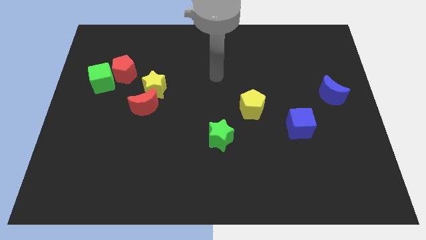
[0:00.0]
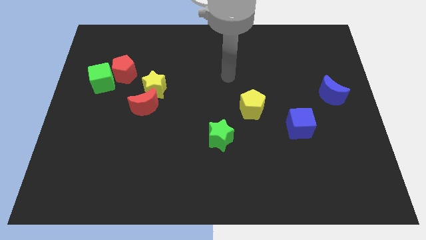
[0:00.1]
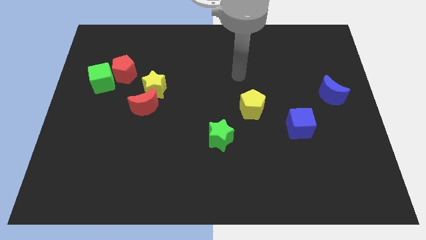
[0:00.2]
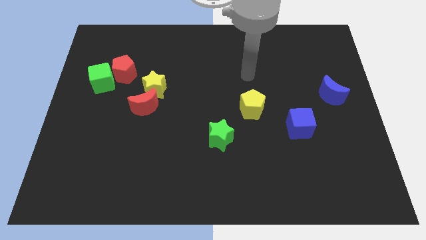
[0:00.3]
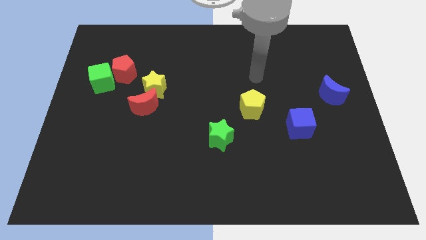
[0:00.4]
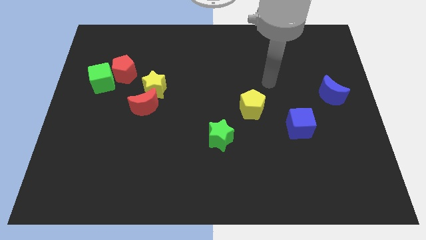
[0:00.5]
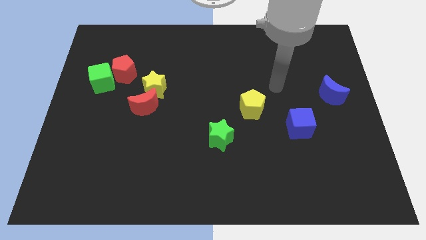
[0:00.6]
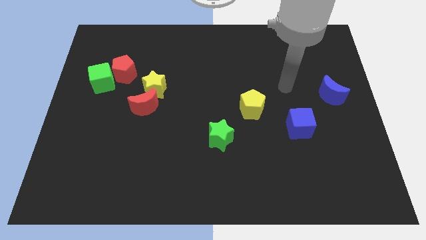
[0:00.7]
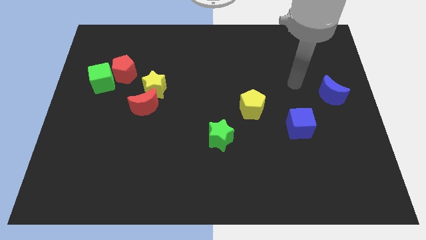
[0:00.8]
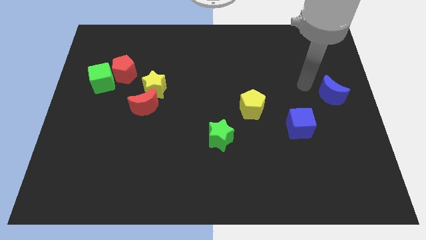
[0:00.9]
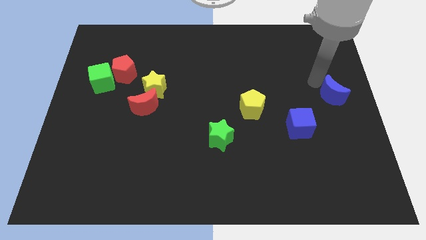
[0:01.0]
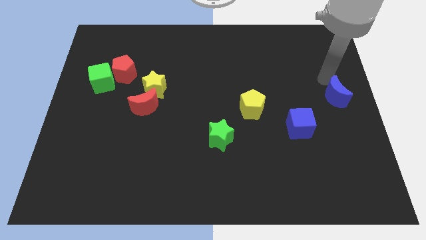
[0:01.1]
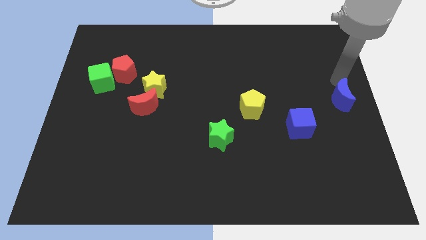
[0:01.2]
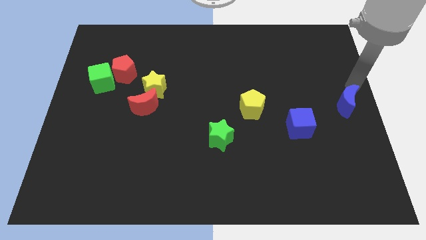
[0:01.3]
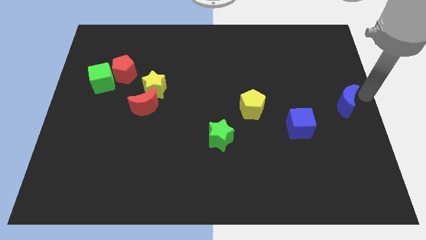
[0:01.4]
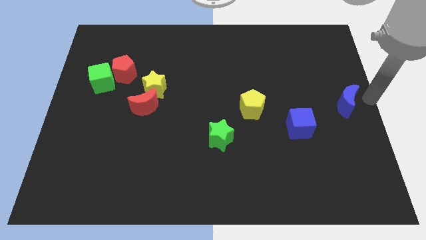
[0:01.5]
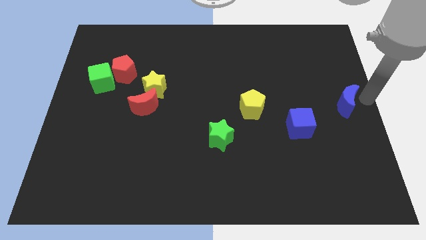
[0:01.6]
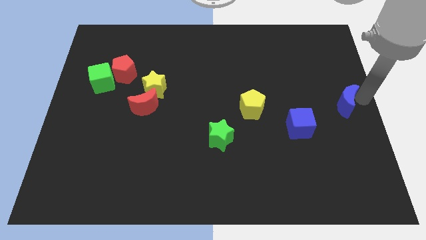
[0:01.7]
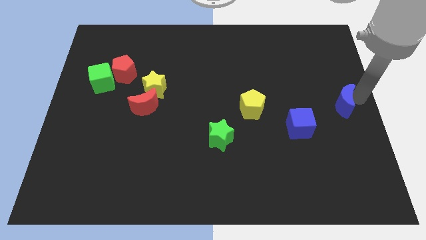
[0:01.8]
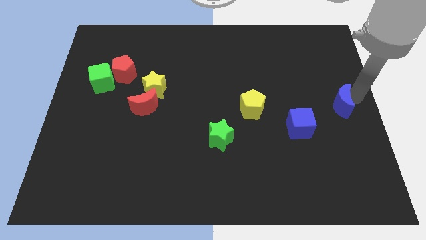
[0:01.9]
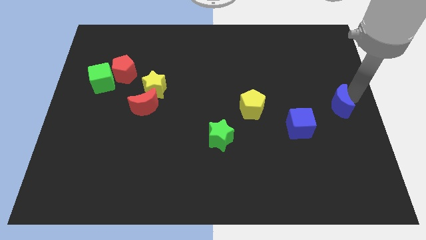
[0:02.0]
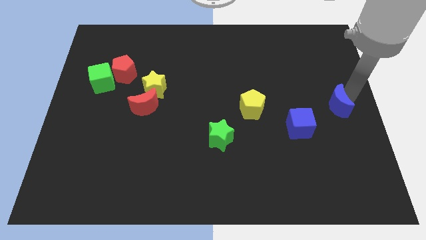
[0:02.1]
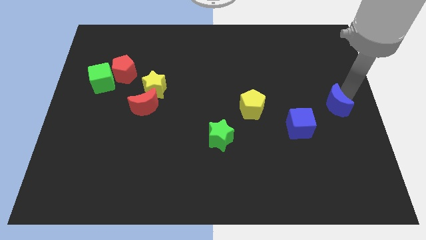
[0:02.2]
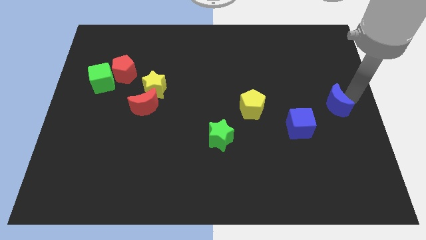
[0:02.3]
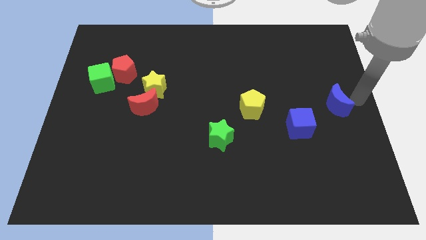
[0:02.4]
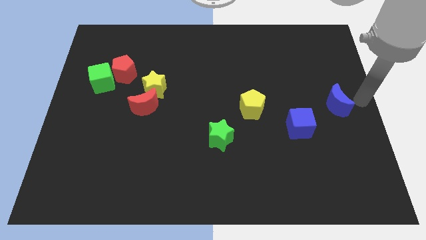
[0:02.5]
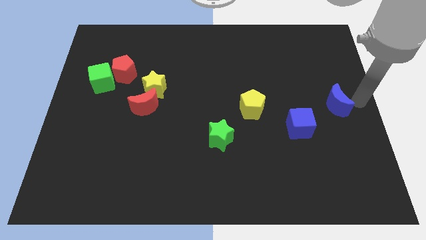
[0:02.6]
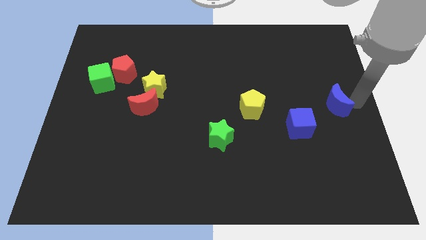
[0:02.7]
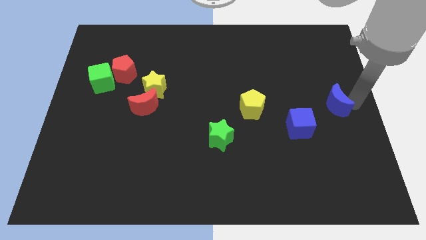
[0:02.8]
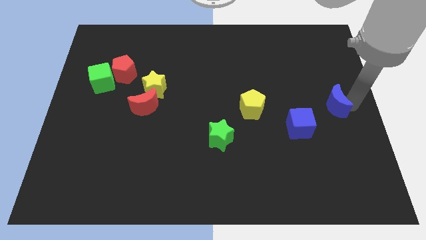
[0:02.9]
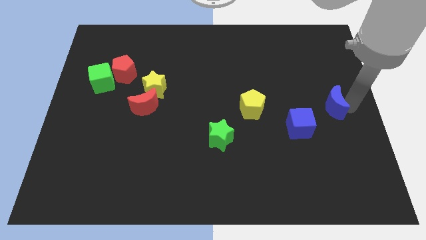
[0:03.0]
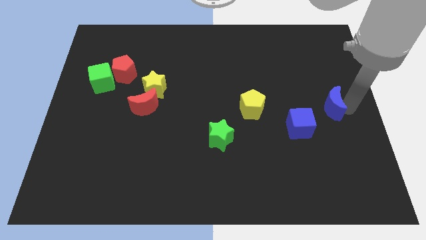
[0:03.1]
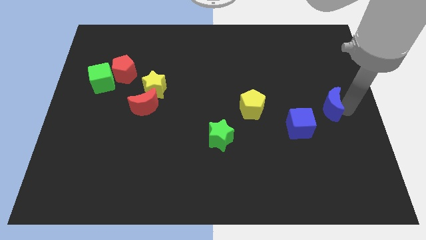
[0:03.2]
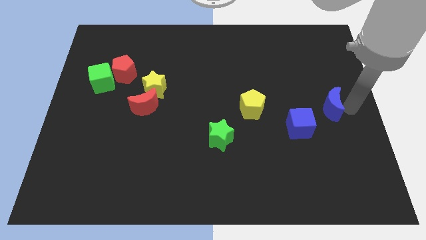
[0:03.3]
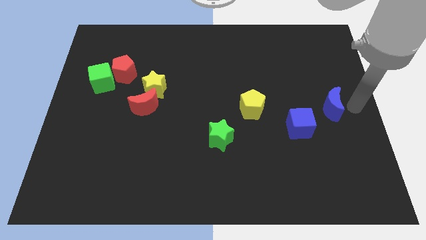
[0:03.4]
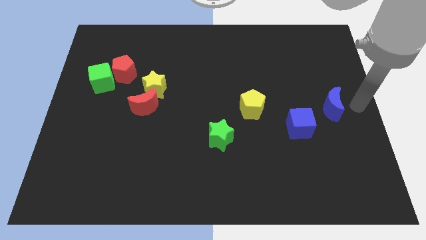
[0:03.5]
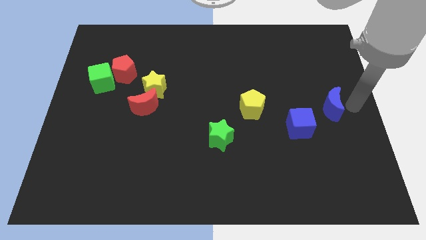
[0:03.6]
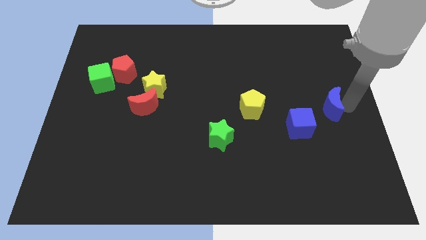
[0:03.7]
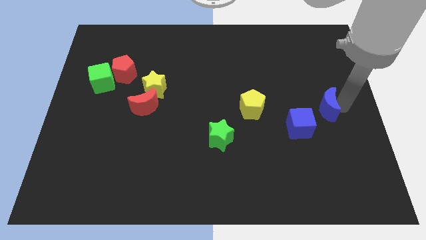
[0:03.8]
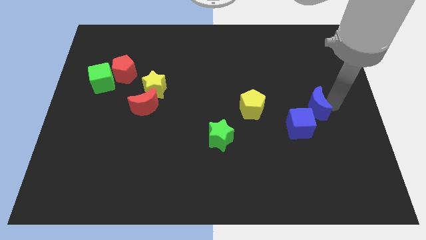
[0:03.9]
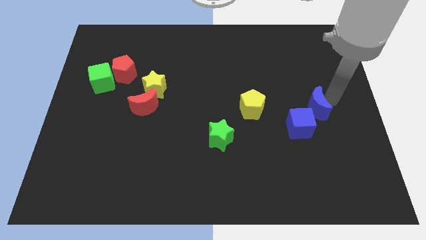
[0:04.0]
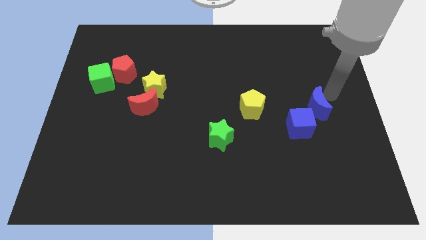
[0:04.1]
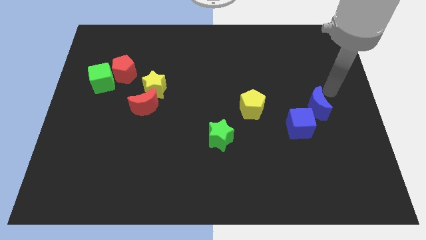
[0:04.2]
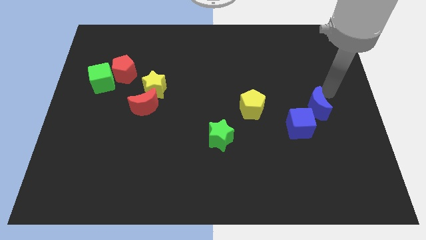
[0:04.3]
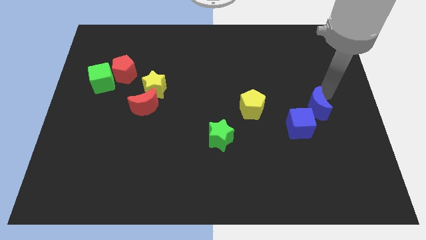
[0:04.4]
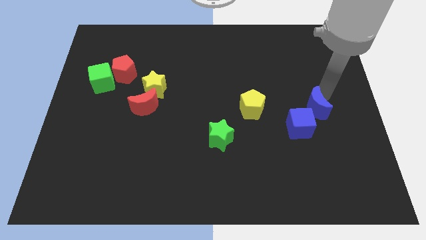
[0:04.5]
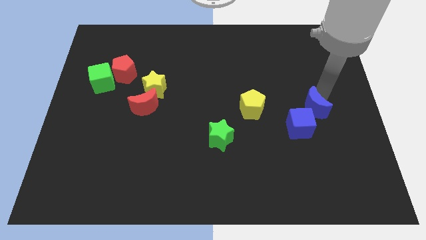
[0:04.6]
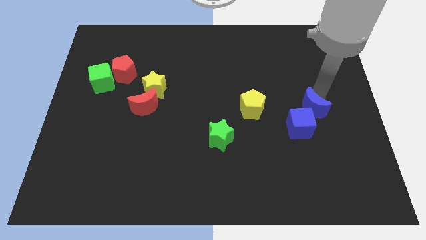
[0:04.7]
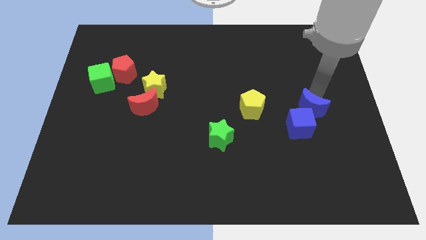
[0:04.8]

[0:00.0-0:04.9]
push the blue moon towards the blue cube

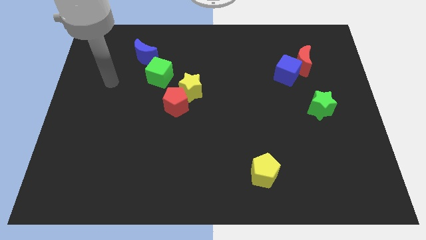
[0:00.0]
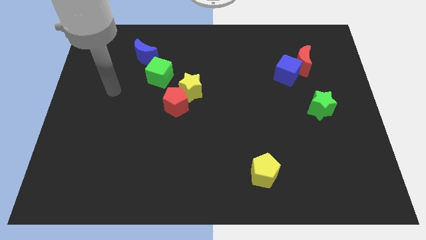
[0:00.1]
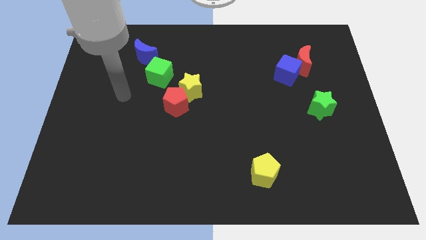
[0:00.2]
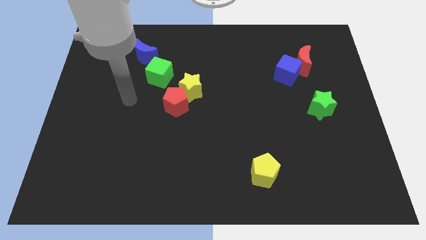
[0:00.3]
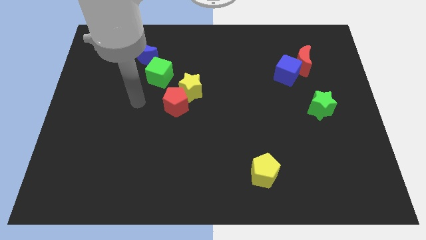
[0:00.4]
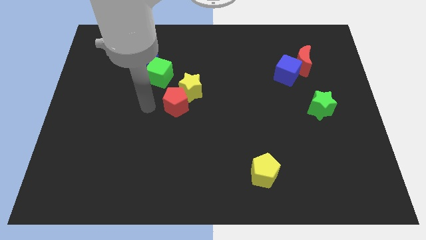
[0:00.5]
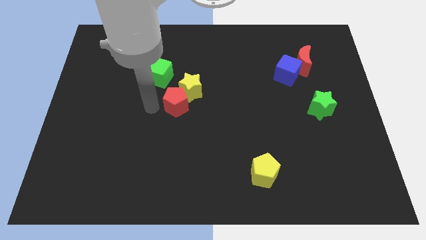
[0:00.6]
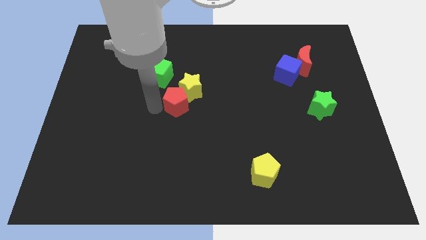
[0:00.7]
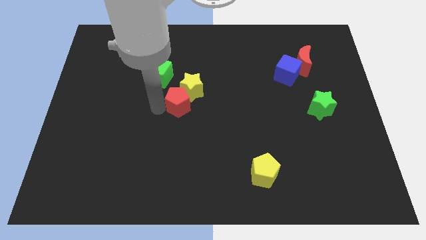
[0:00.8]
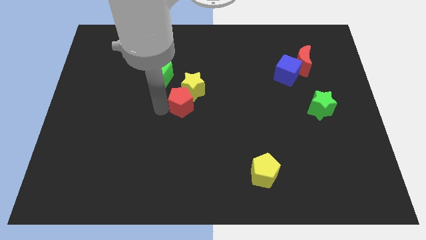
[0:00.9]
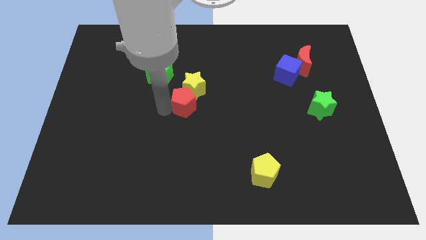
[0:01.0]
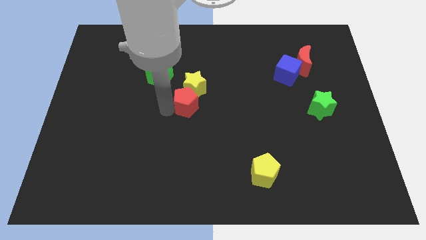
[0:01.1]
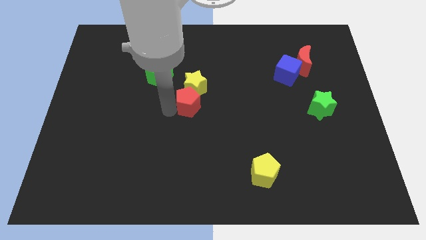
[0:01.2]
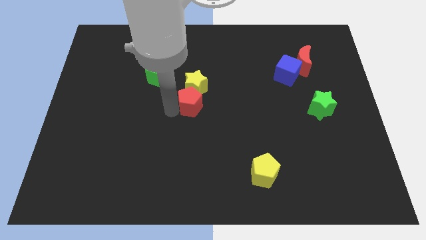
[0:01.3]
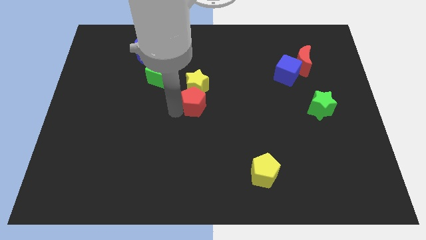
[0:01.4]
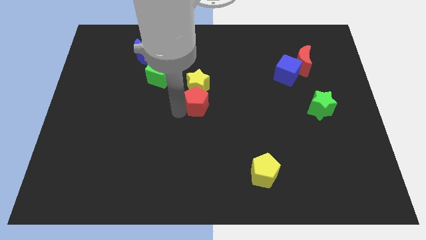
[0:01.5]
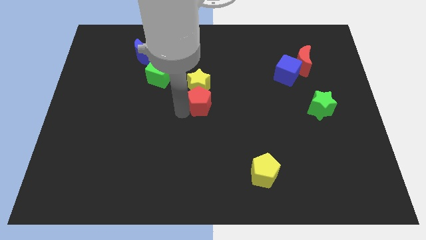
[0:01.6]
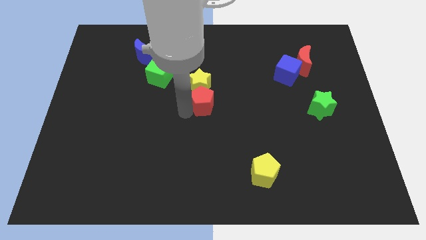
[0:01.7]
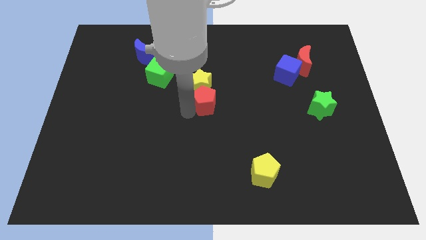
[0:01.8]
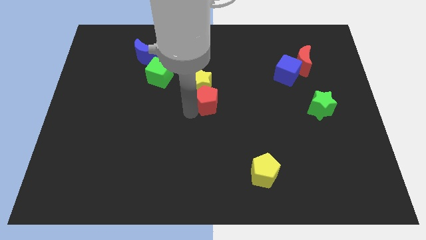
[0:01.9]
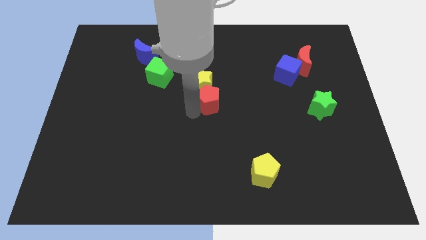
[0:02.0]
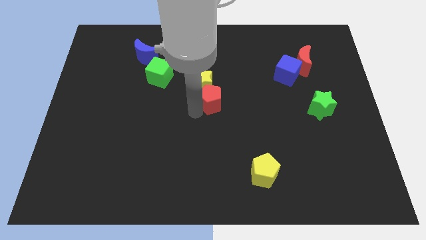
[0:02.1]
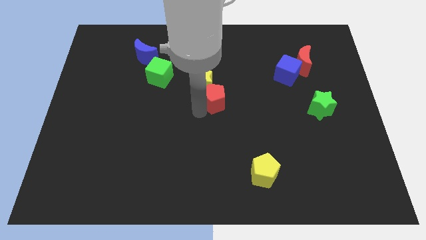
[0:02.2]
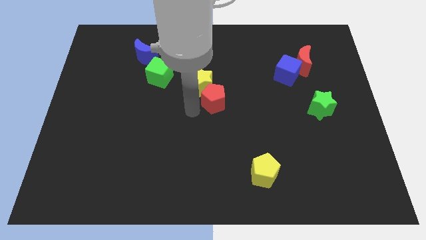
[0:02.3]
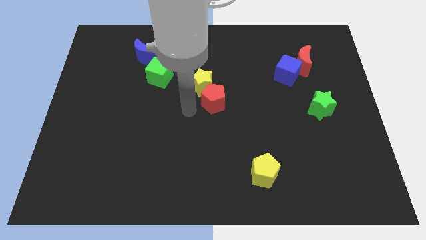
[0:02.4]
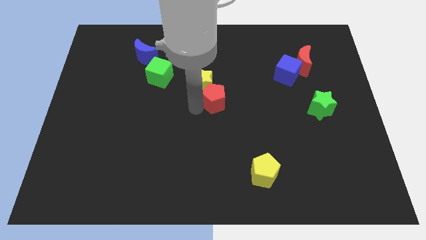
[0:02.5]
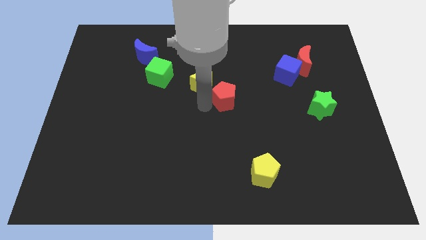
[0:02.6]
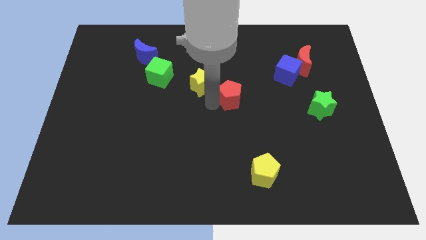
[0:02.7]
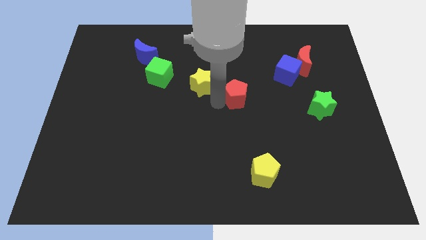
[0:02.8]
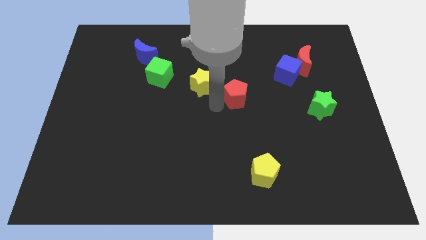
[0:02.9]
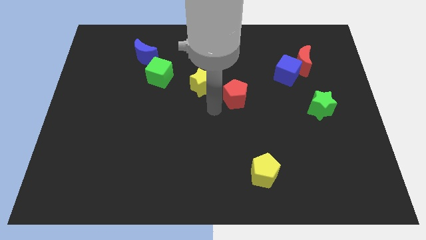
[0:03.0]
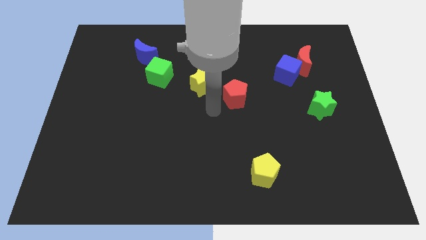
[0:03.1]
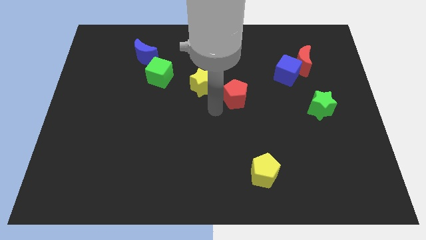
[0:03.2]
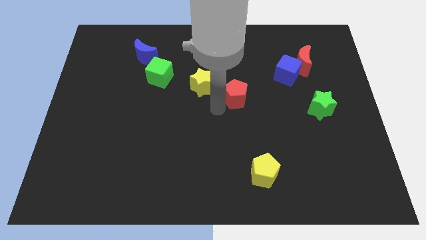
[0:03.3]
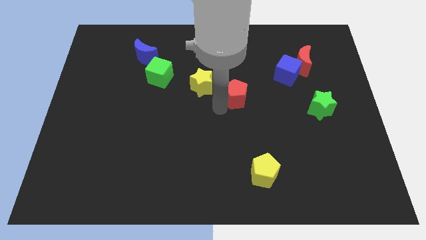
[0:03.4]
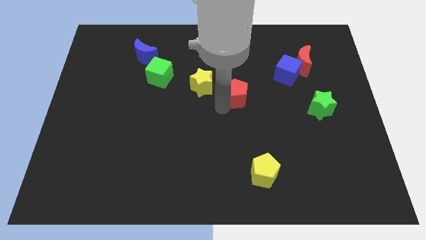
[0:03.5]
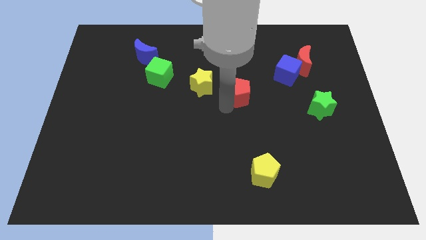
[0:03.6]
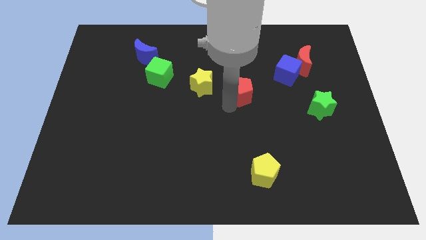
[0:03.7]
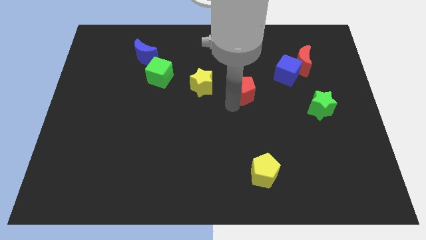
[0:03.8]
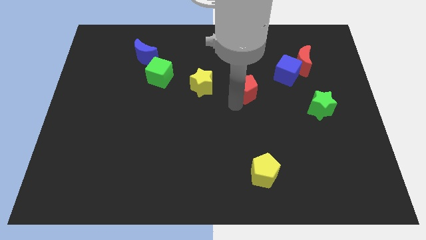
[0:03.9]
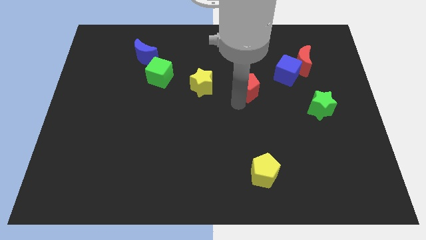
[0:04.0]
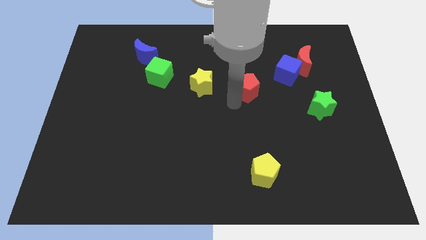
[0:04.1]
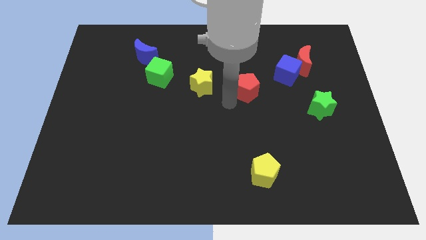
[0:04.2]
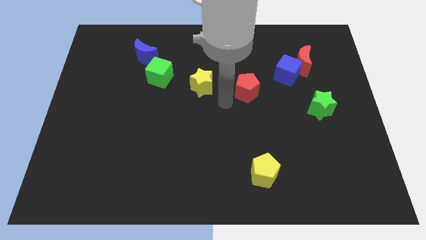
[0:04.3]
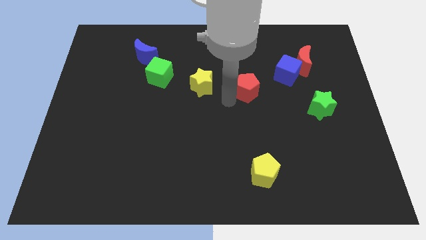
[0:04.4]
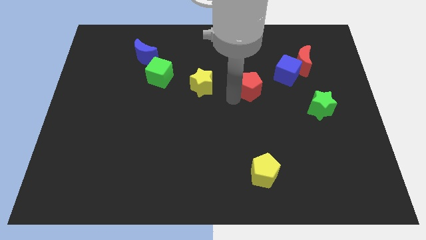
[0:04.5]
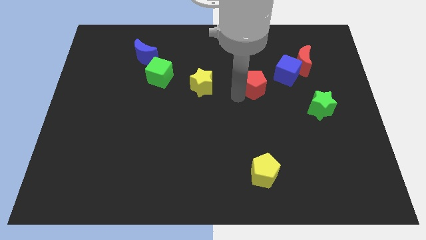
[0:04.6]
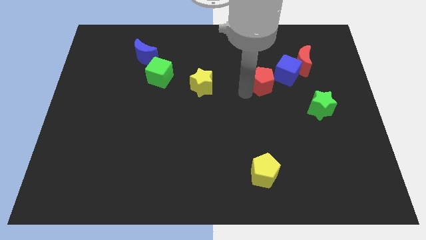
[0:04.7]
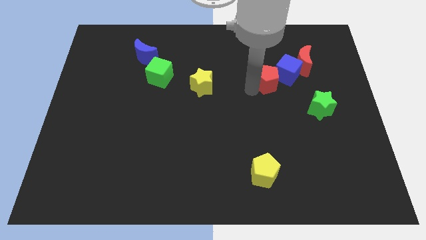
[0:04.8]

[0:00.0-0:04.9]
move the red pentagon to the blue cube
